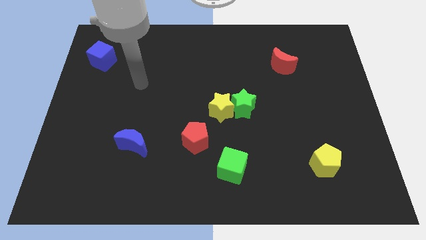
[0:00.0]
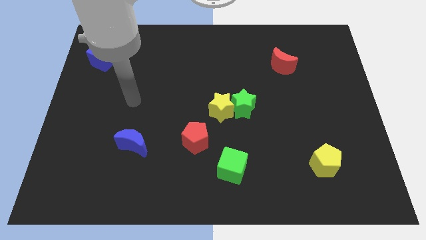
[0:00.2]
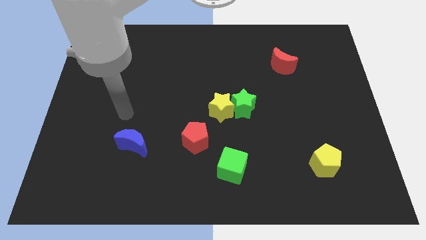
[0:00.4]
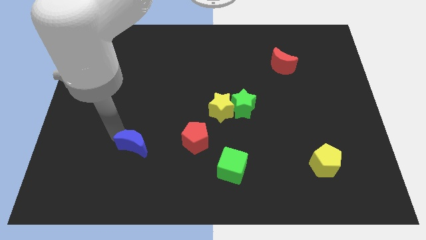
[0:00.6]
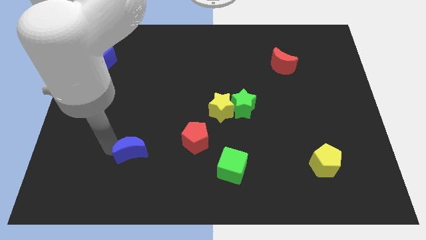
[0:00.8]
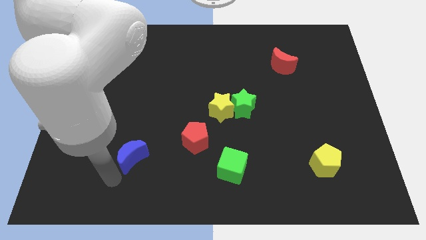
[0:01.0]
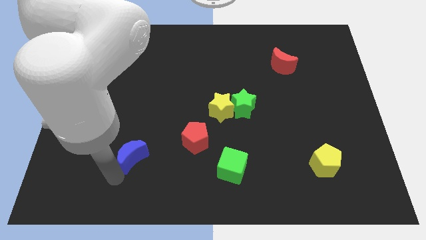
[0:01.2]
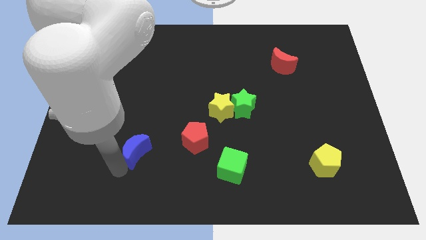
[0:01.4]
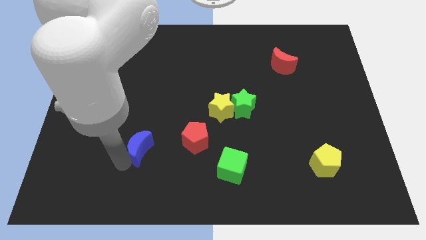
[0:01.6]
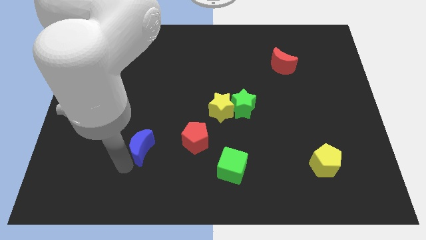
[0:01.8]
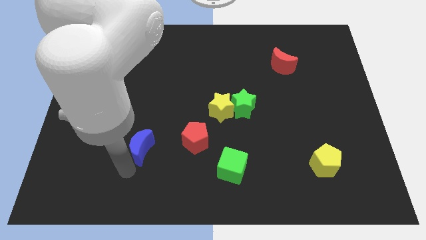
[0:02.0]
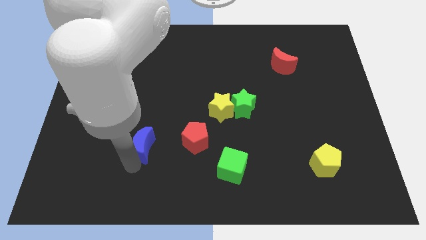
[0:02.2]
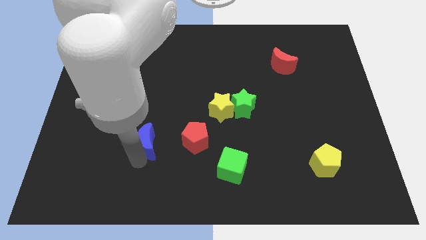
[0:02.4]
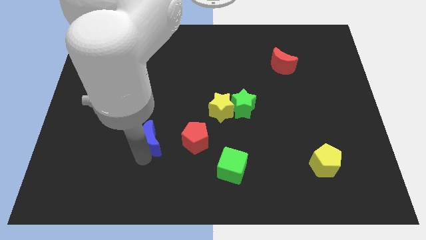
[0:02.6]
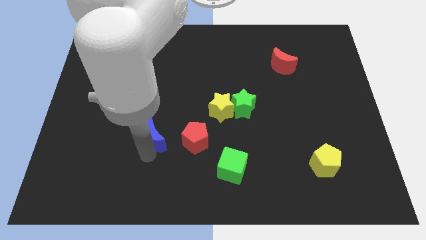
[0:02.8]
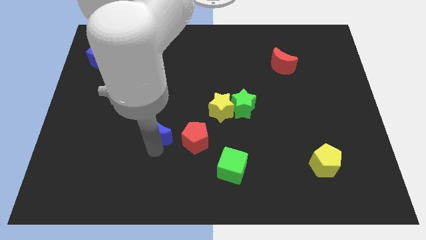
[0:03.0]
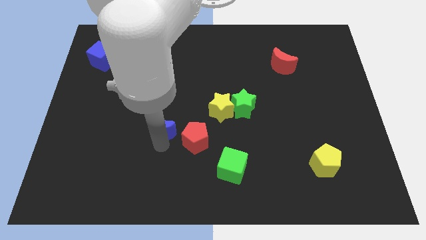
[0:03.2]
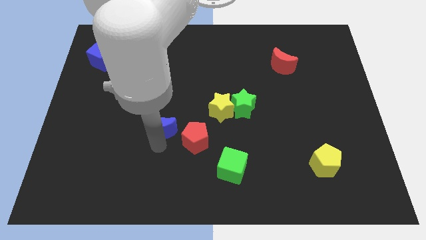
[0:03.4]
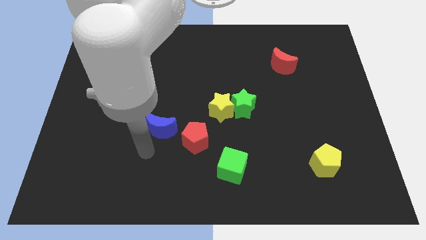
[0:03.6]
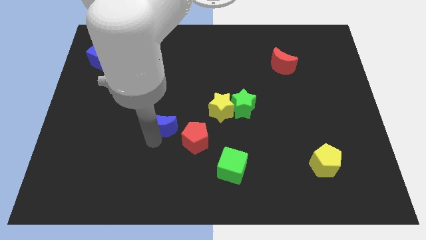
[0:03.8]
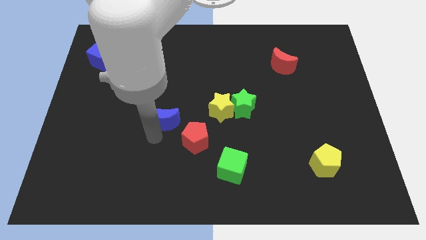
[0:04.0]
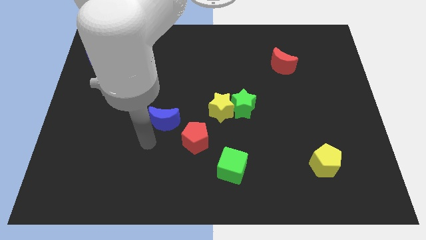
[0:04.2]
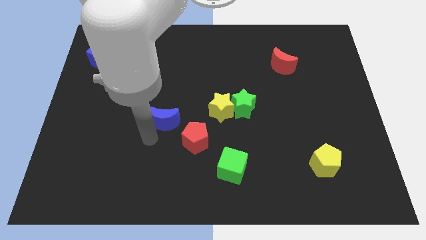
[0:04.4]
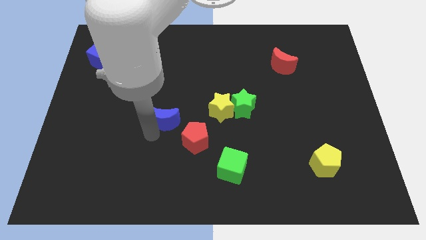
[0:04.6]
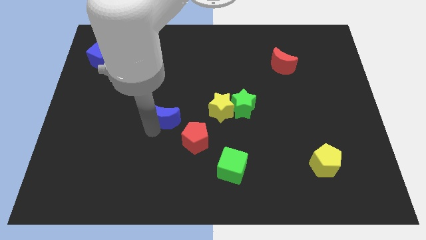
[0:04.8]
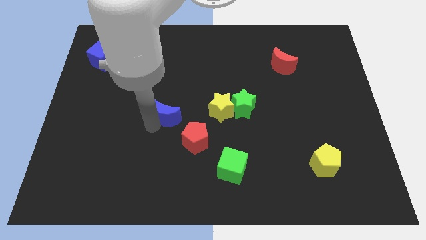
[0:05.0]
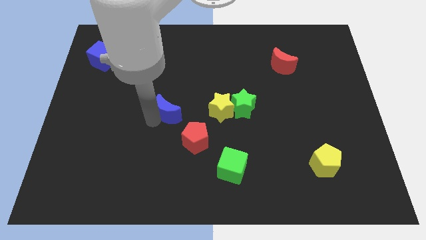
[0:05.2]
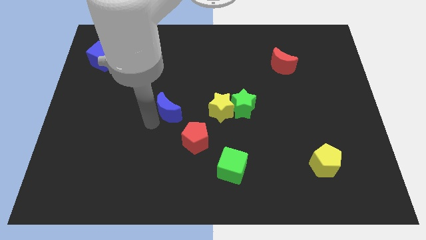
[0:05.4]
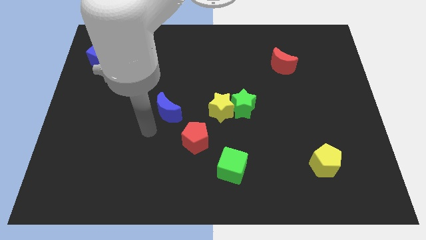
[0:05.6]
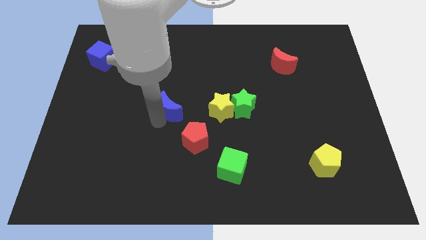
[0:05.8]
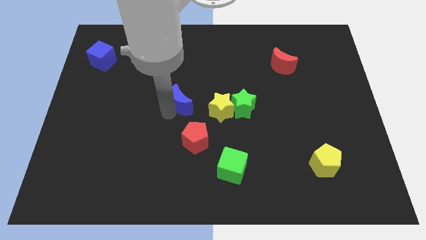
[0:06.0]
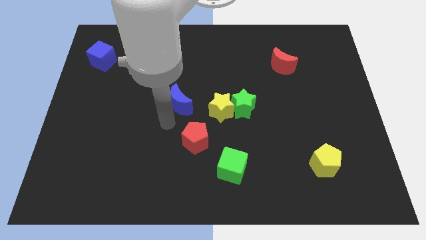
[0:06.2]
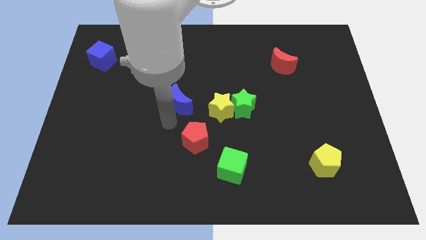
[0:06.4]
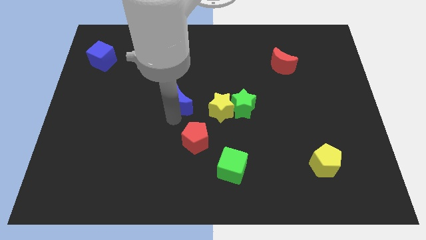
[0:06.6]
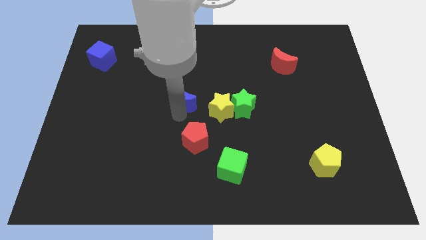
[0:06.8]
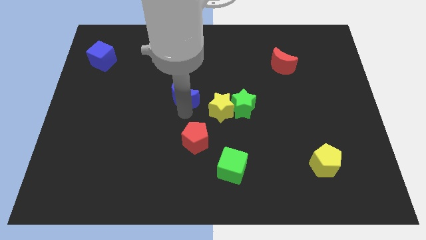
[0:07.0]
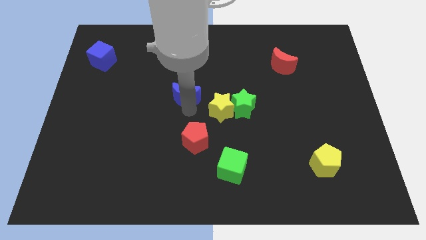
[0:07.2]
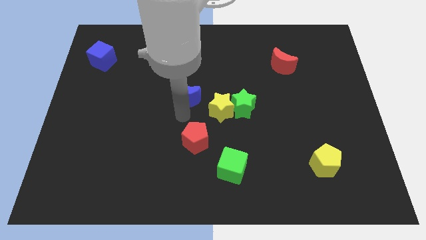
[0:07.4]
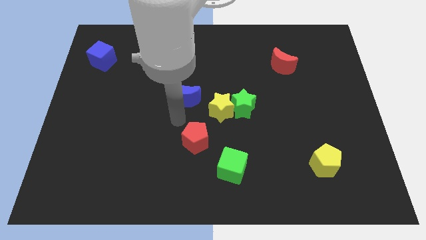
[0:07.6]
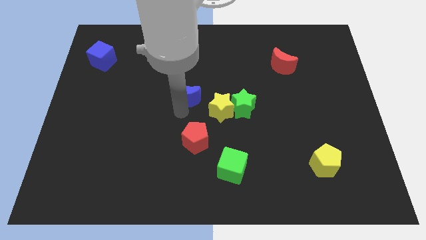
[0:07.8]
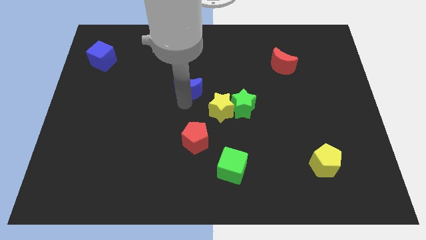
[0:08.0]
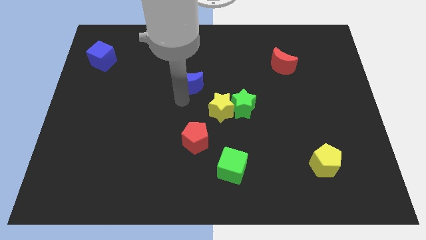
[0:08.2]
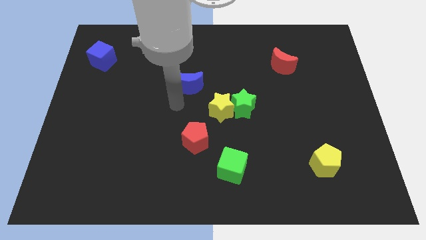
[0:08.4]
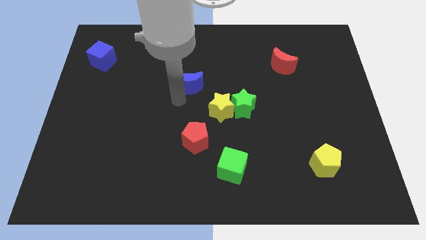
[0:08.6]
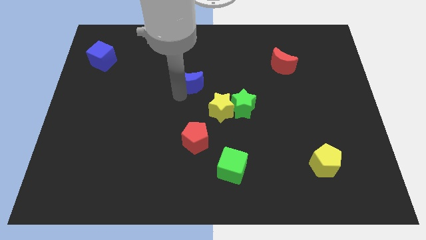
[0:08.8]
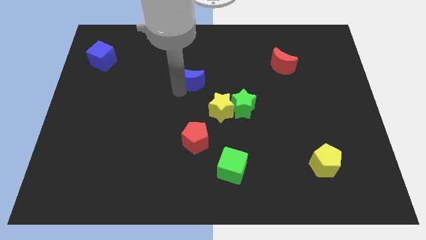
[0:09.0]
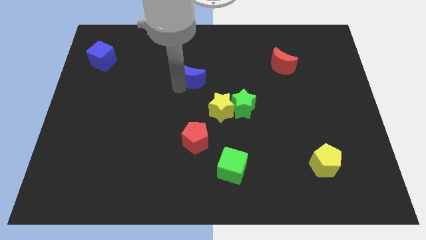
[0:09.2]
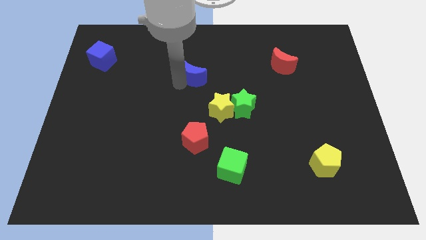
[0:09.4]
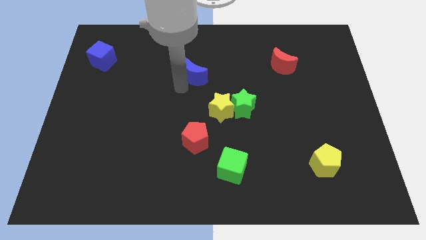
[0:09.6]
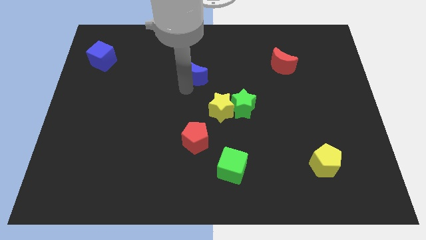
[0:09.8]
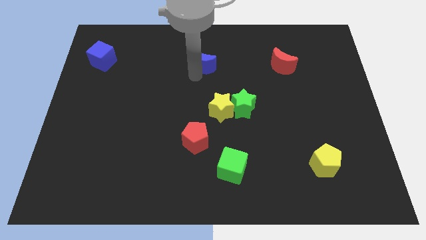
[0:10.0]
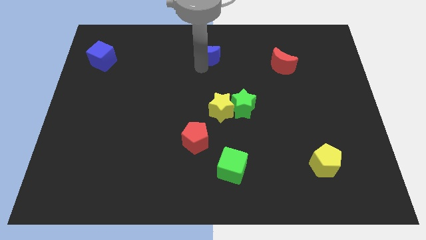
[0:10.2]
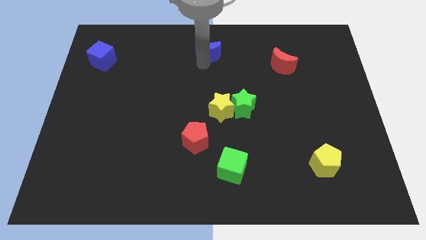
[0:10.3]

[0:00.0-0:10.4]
push the blue moon to the top
